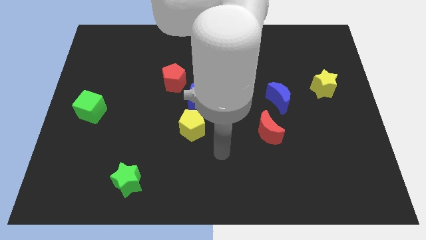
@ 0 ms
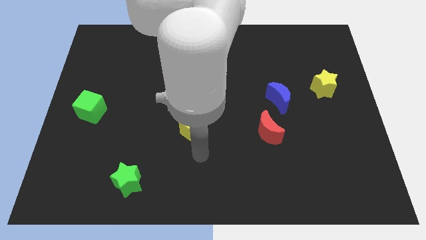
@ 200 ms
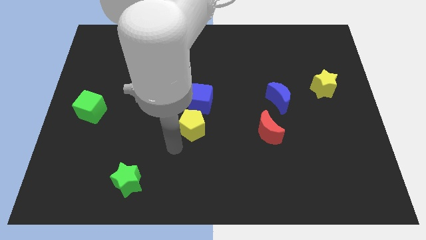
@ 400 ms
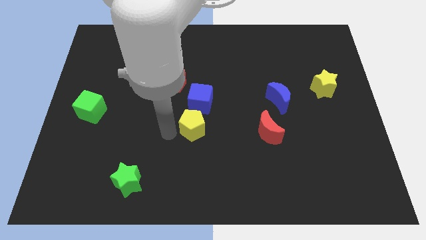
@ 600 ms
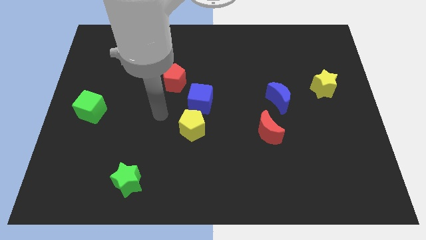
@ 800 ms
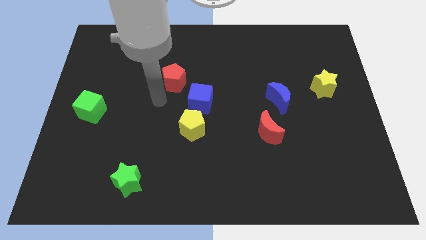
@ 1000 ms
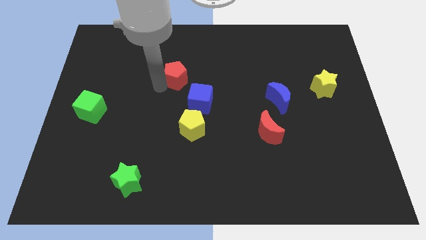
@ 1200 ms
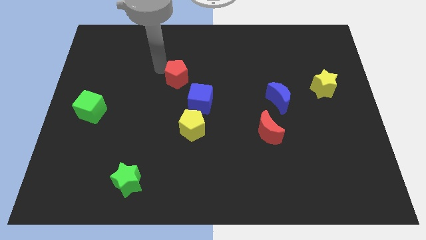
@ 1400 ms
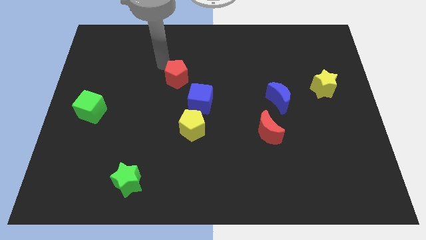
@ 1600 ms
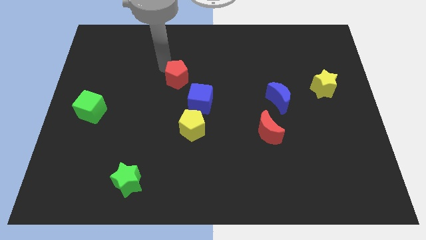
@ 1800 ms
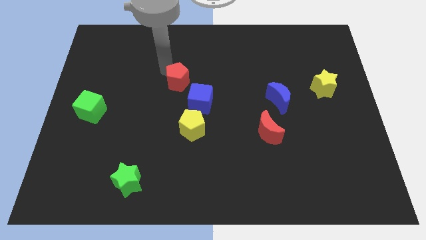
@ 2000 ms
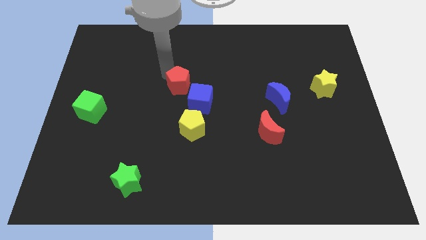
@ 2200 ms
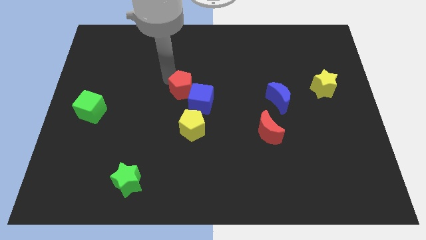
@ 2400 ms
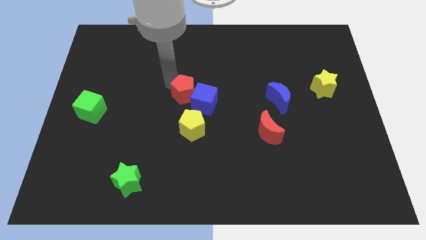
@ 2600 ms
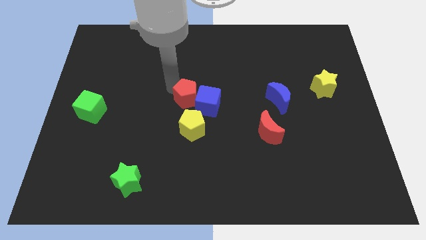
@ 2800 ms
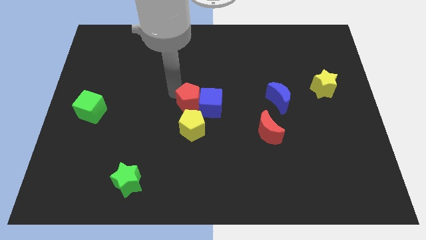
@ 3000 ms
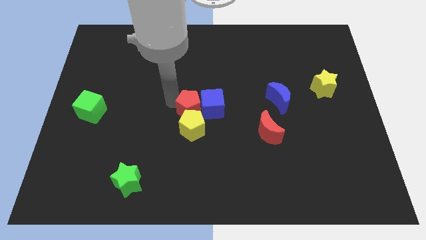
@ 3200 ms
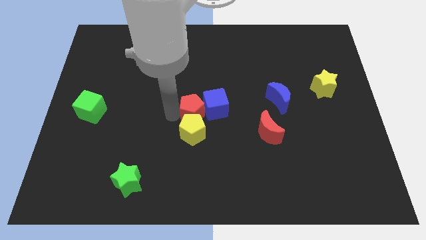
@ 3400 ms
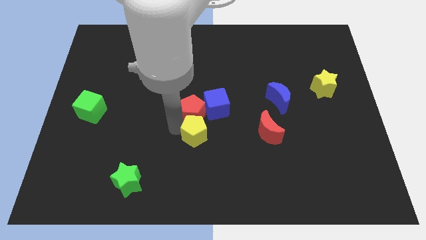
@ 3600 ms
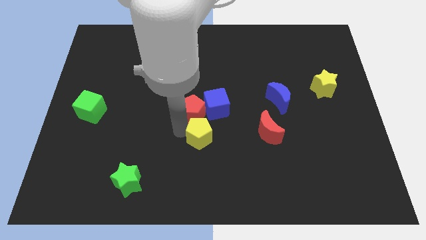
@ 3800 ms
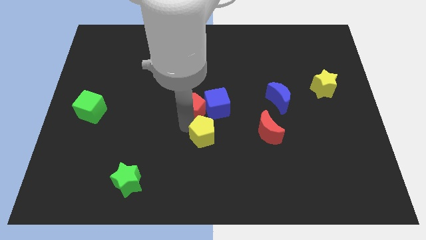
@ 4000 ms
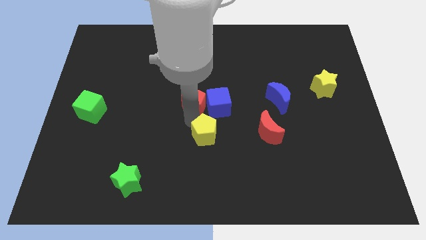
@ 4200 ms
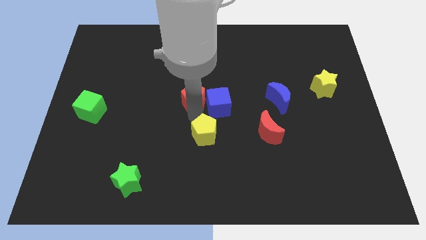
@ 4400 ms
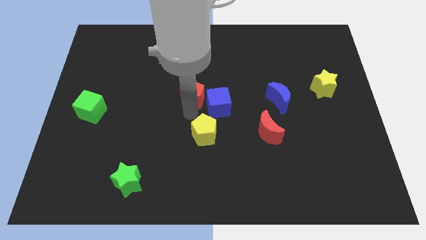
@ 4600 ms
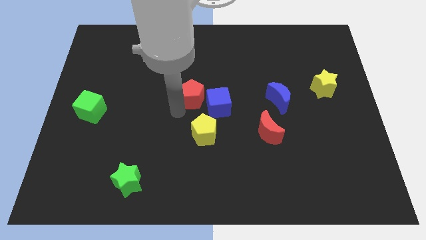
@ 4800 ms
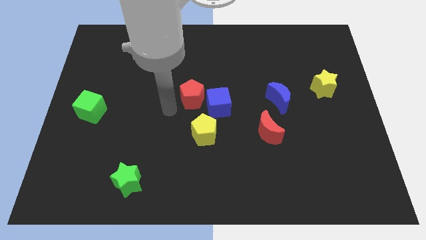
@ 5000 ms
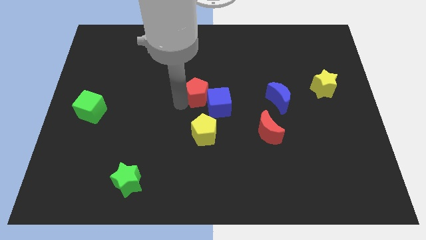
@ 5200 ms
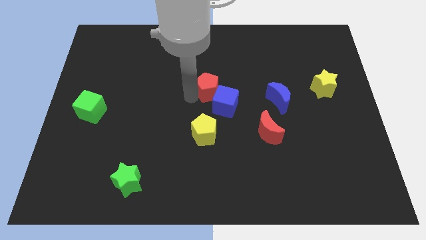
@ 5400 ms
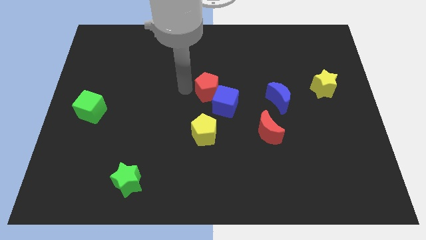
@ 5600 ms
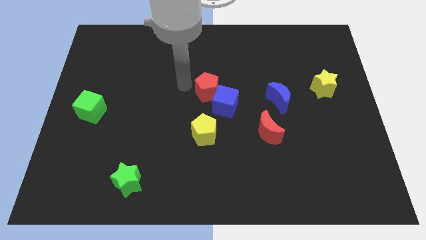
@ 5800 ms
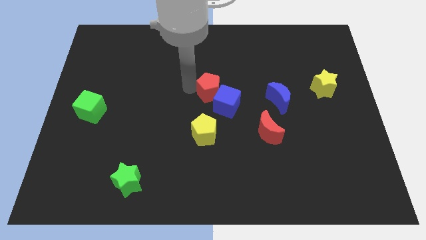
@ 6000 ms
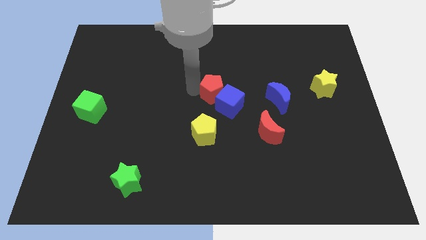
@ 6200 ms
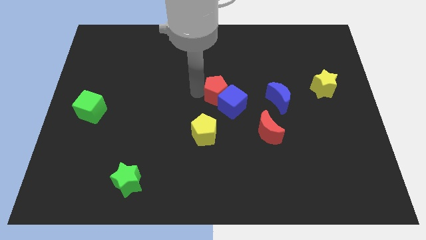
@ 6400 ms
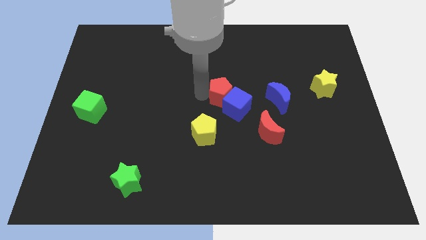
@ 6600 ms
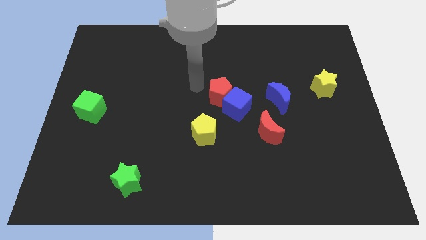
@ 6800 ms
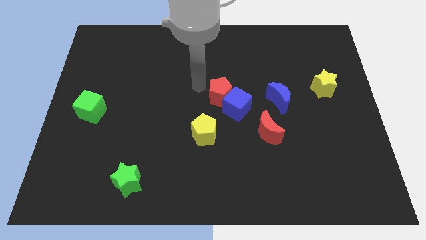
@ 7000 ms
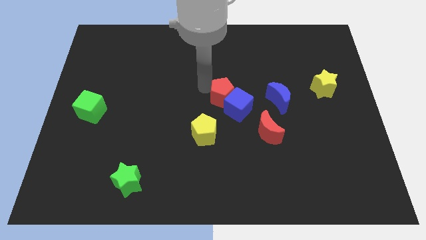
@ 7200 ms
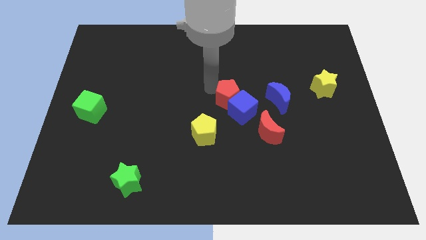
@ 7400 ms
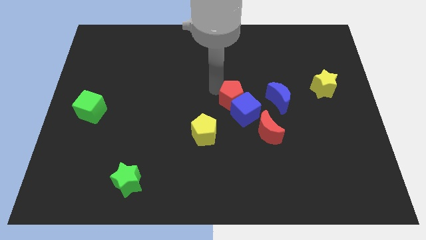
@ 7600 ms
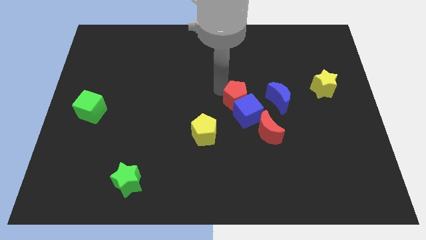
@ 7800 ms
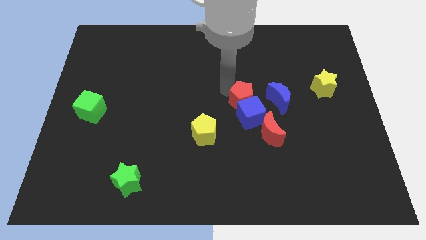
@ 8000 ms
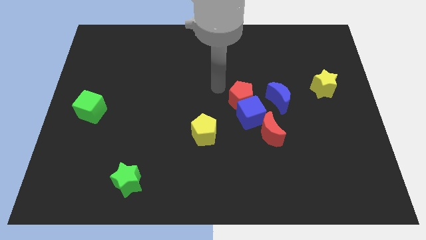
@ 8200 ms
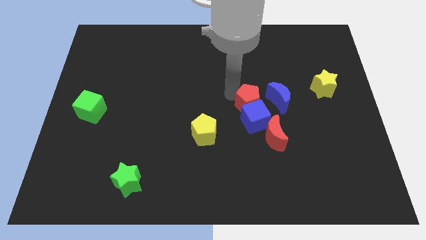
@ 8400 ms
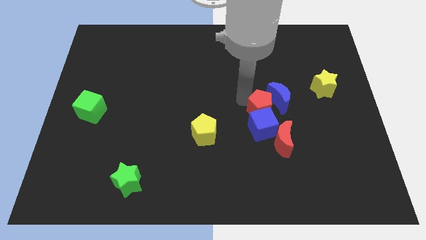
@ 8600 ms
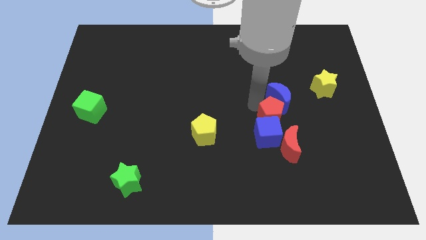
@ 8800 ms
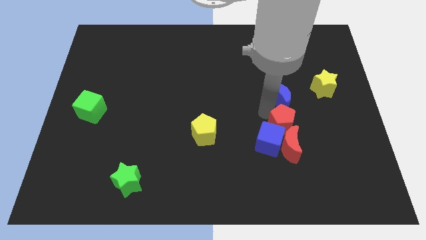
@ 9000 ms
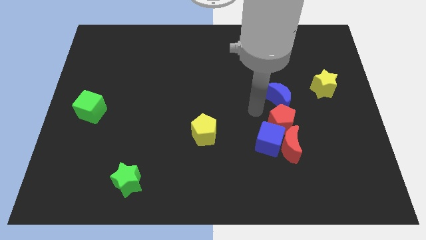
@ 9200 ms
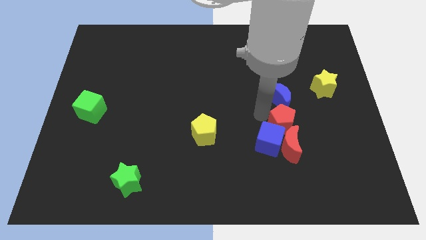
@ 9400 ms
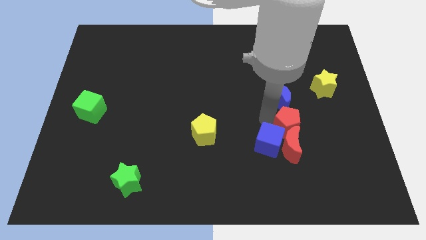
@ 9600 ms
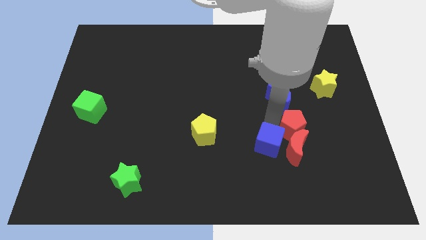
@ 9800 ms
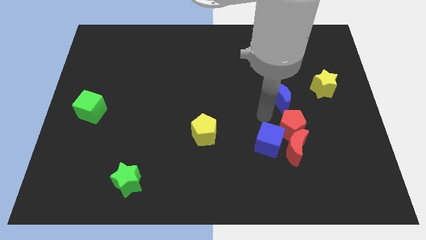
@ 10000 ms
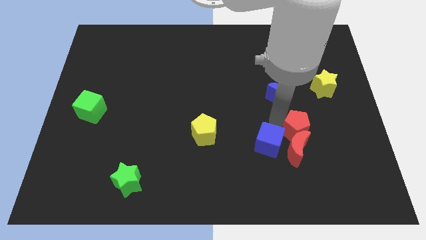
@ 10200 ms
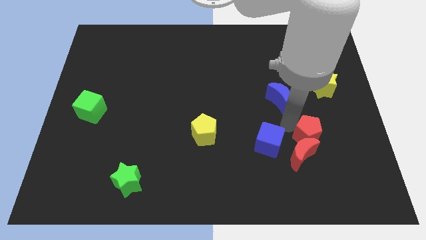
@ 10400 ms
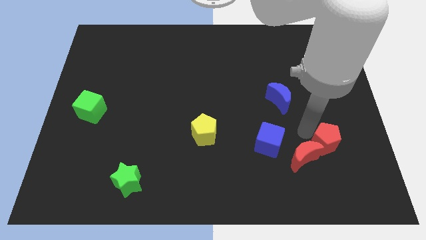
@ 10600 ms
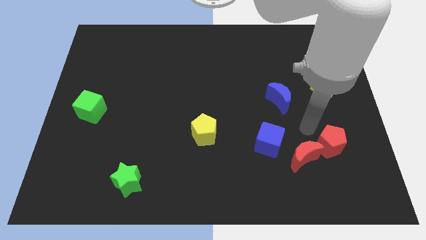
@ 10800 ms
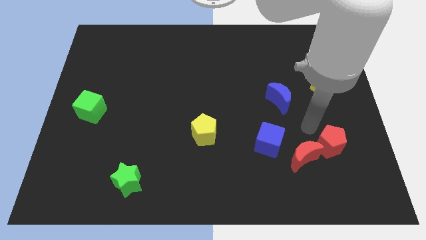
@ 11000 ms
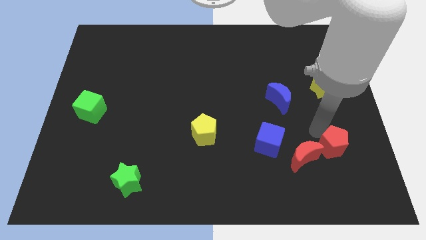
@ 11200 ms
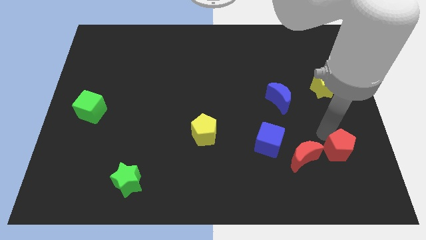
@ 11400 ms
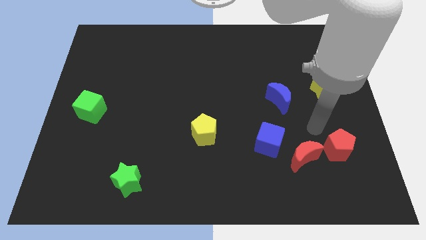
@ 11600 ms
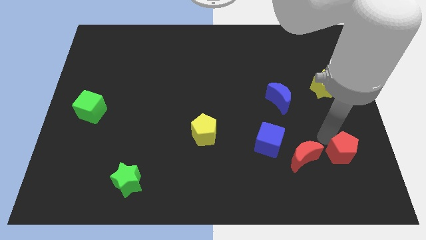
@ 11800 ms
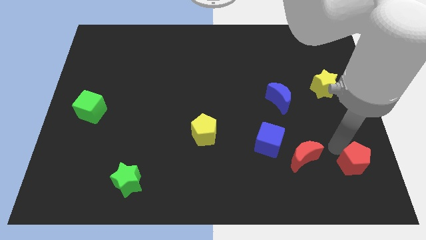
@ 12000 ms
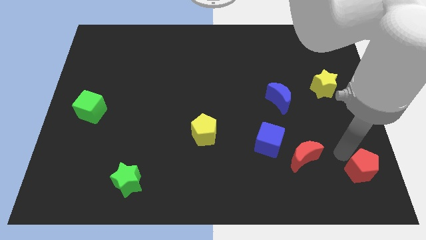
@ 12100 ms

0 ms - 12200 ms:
put the red pentagon to the bottom right
